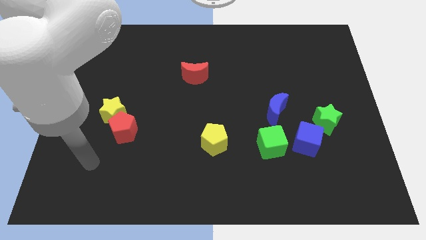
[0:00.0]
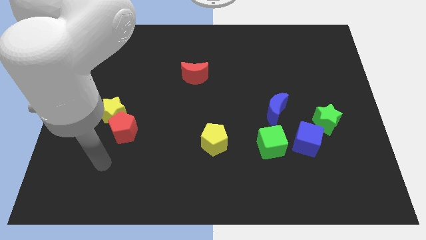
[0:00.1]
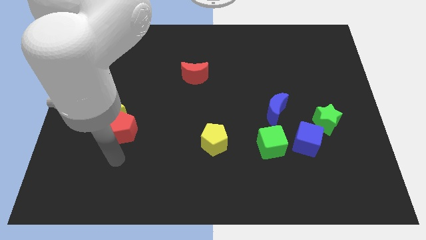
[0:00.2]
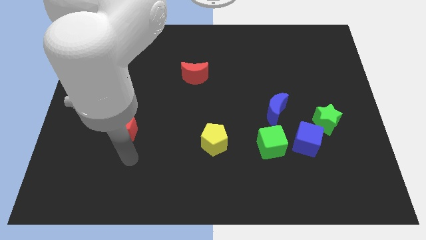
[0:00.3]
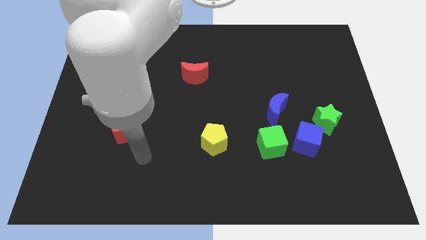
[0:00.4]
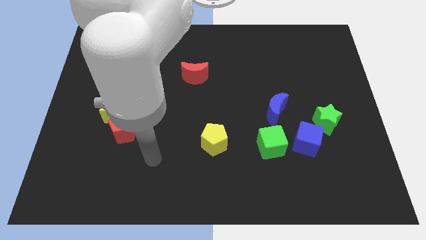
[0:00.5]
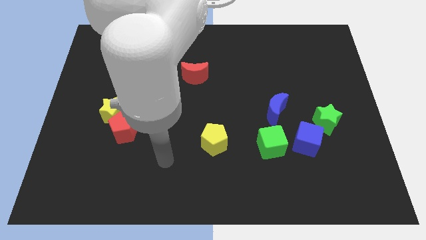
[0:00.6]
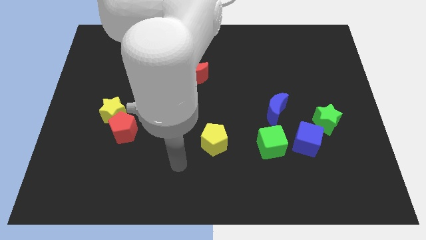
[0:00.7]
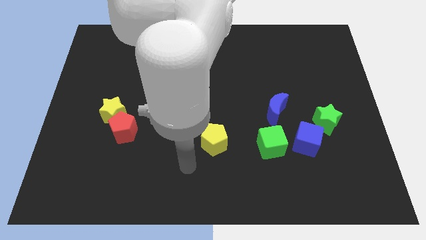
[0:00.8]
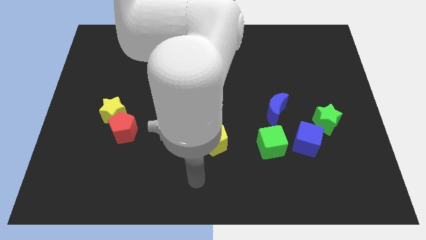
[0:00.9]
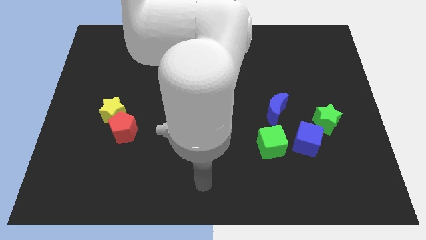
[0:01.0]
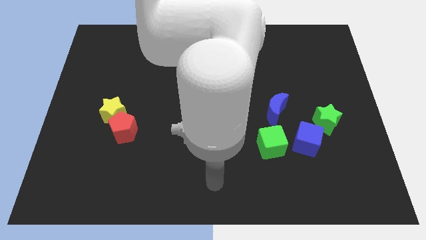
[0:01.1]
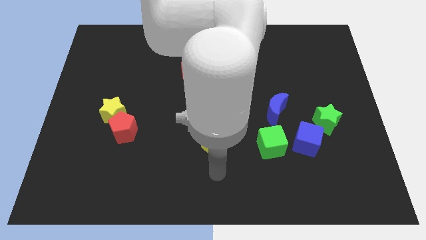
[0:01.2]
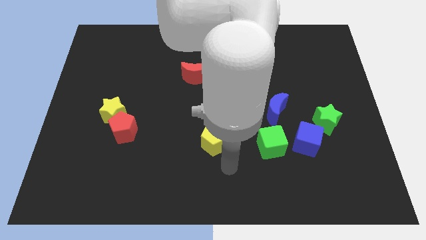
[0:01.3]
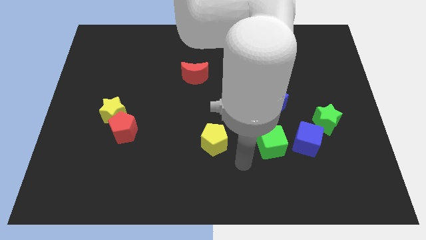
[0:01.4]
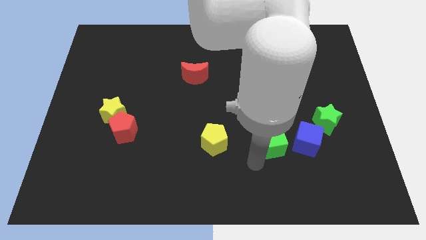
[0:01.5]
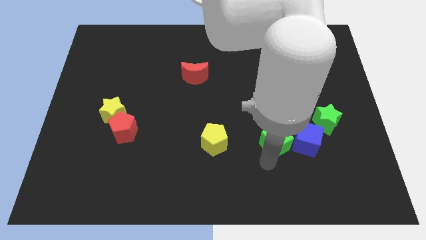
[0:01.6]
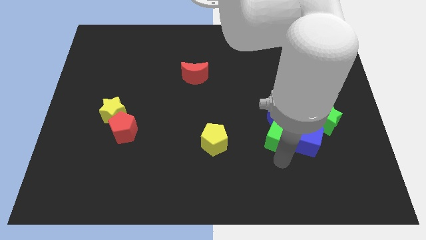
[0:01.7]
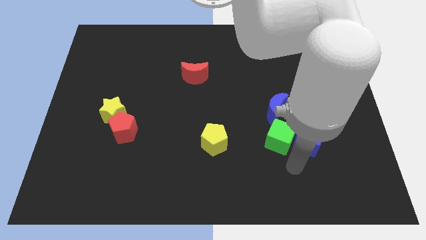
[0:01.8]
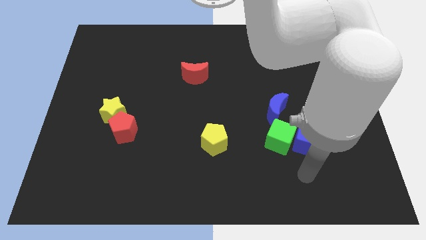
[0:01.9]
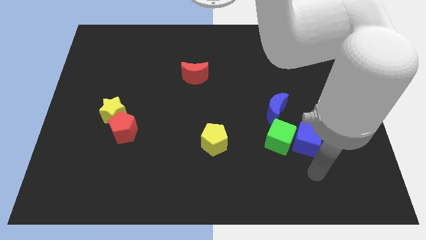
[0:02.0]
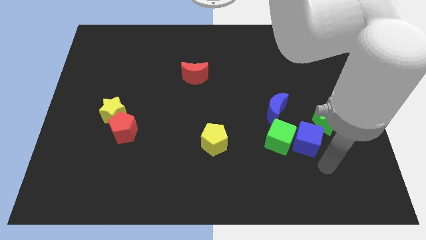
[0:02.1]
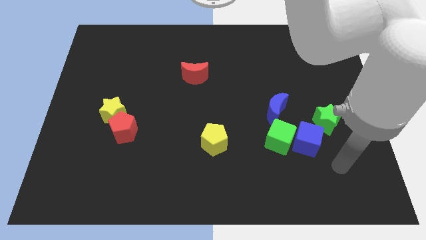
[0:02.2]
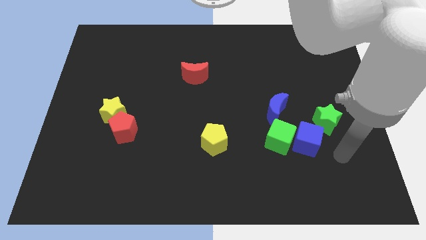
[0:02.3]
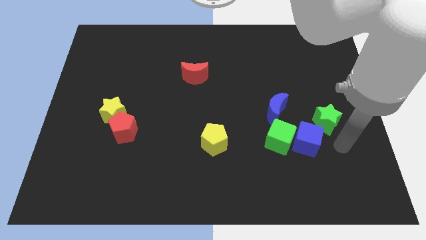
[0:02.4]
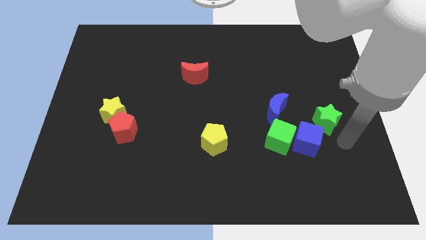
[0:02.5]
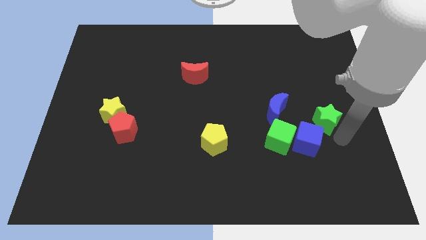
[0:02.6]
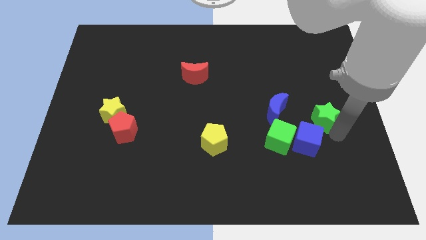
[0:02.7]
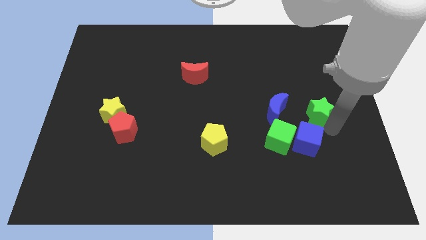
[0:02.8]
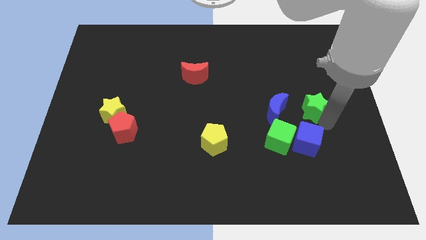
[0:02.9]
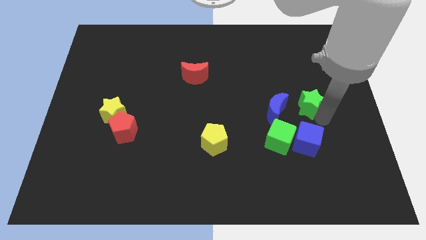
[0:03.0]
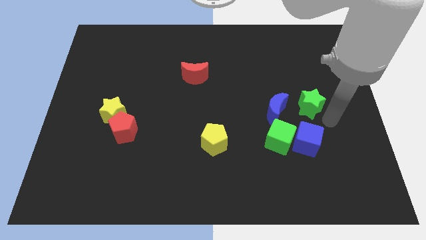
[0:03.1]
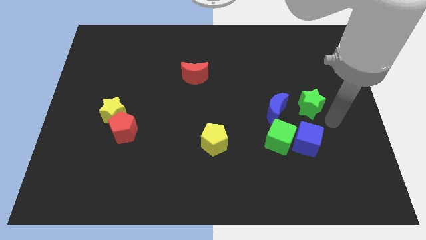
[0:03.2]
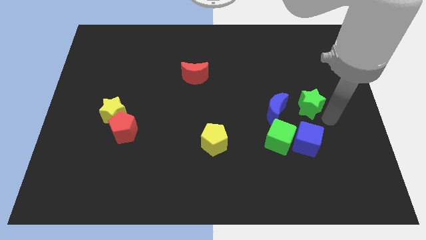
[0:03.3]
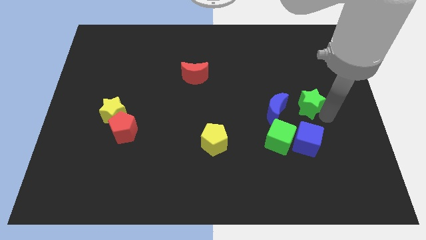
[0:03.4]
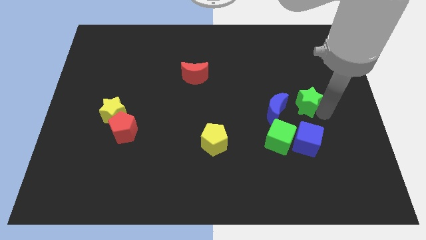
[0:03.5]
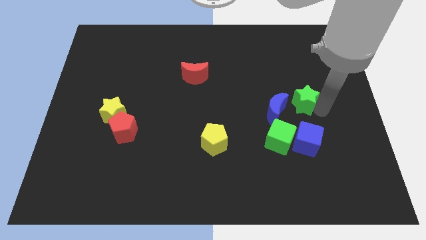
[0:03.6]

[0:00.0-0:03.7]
move the green star a little bit upwards and left diagonally

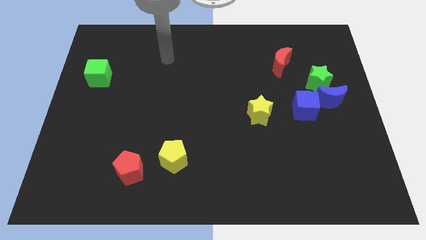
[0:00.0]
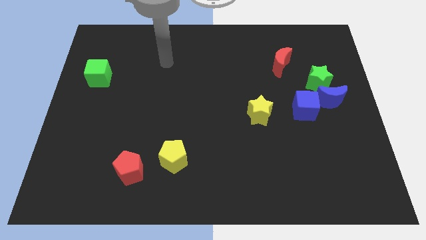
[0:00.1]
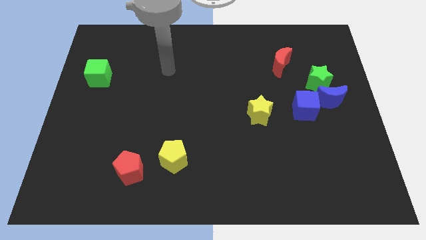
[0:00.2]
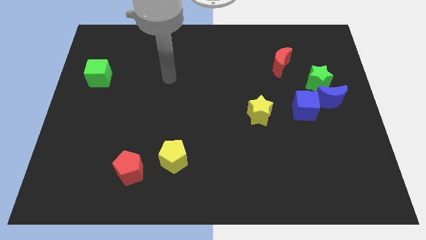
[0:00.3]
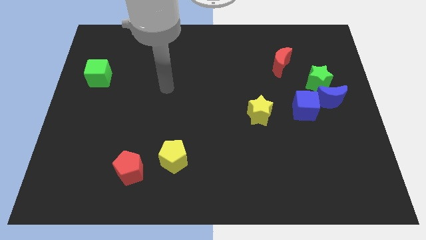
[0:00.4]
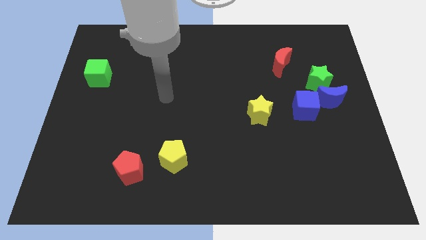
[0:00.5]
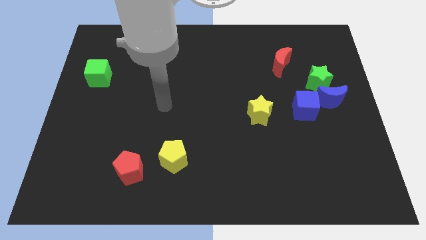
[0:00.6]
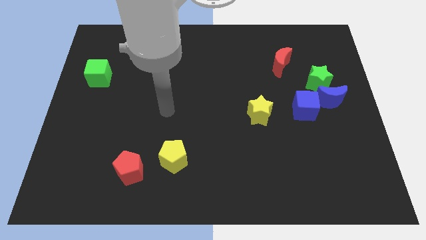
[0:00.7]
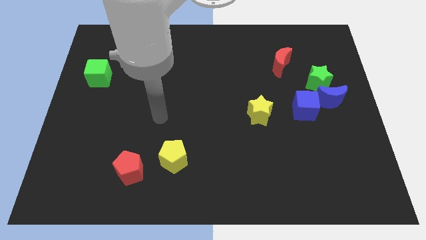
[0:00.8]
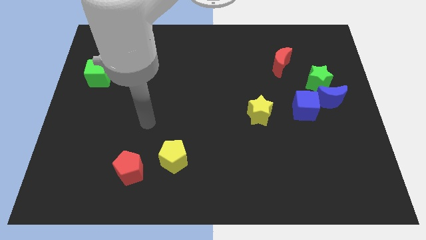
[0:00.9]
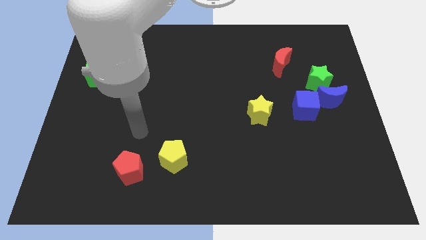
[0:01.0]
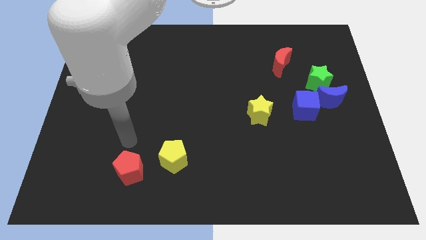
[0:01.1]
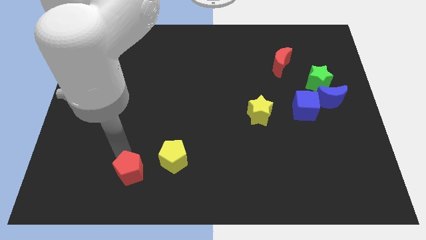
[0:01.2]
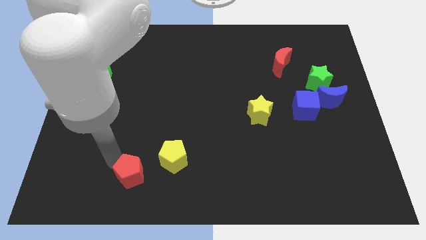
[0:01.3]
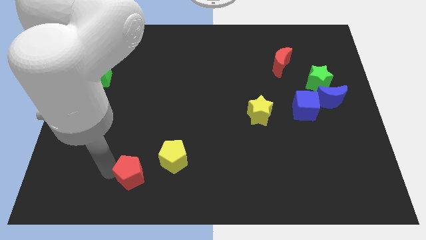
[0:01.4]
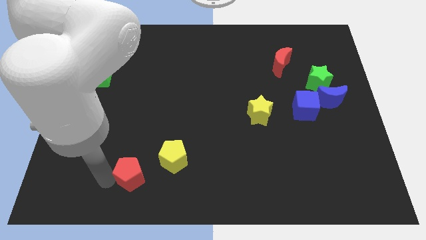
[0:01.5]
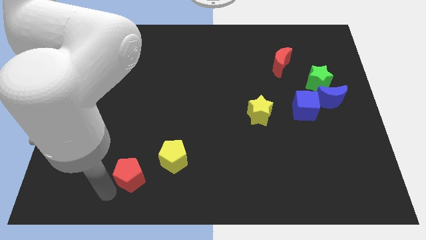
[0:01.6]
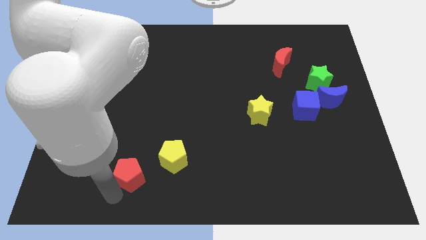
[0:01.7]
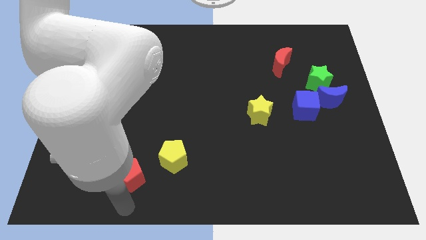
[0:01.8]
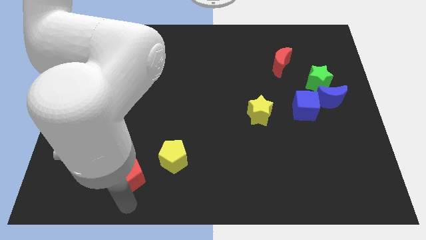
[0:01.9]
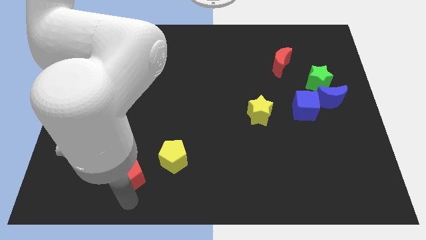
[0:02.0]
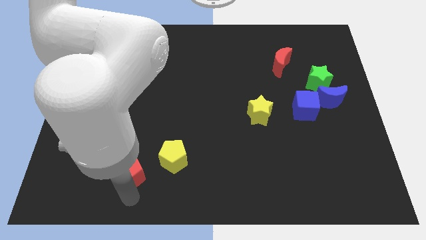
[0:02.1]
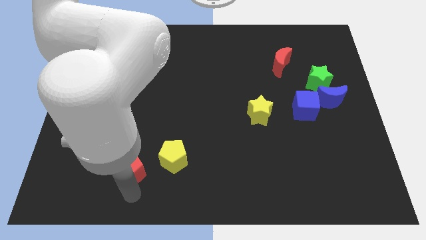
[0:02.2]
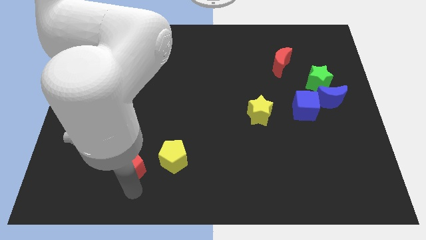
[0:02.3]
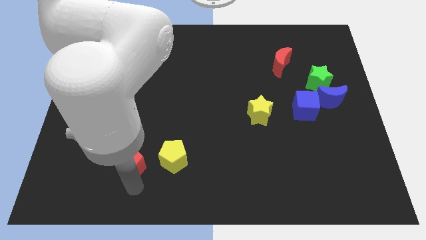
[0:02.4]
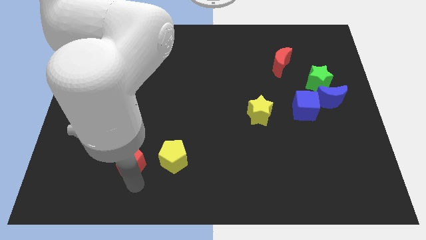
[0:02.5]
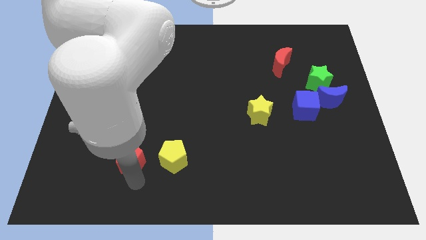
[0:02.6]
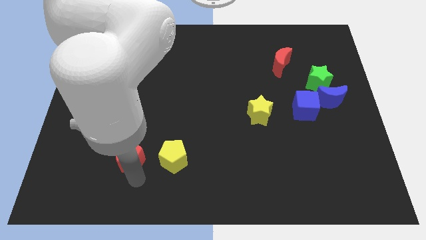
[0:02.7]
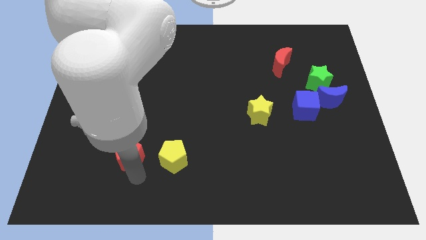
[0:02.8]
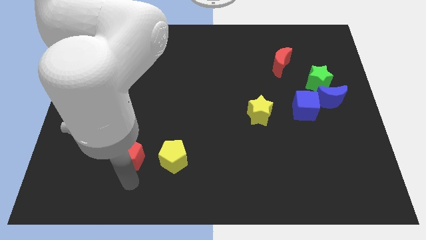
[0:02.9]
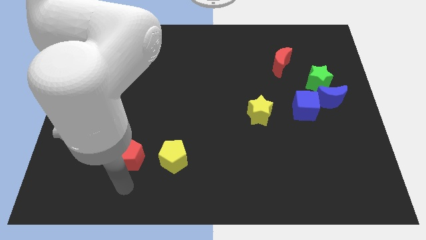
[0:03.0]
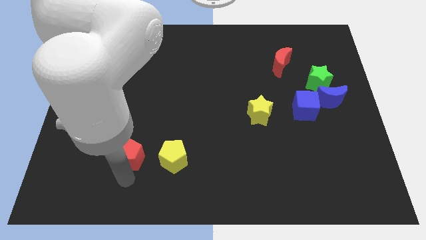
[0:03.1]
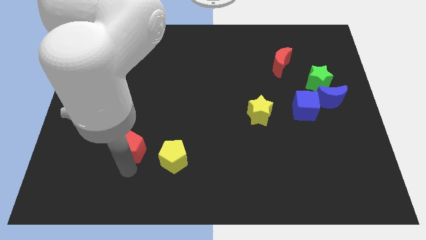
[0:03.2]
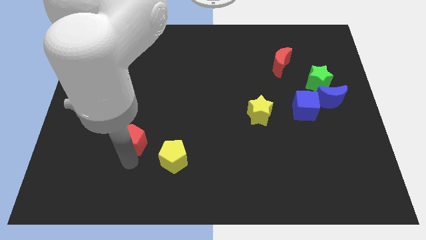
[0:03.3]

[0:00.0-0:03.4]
slightly push the red pentagon up

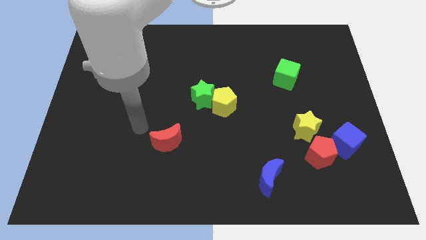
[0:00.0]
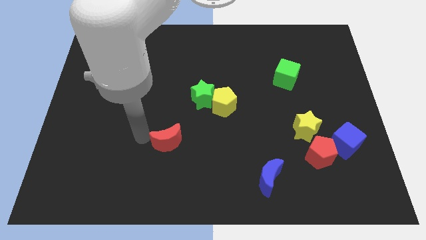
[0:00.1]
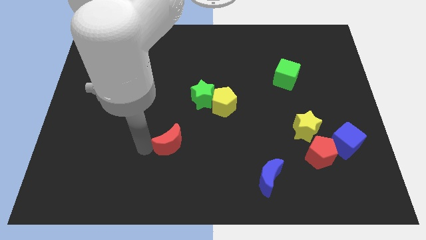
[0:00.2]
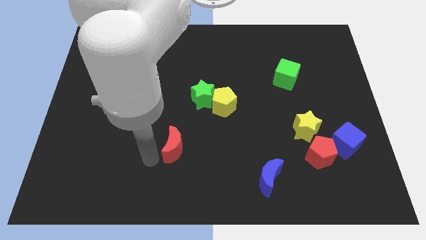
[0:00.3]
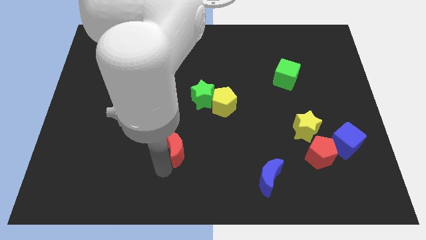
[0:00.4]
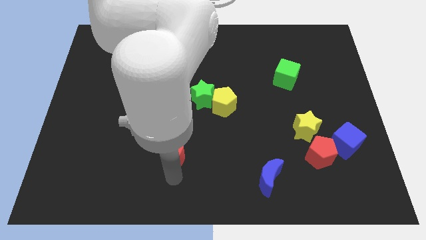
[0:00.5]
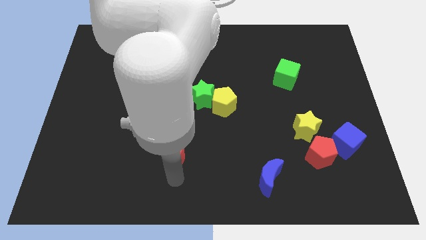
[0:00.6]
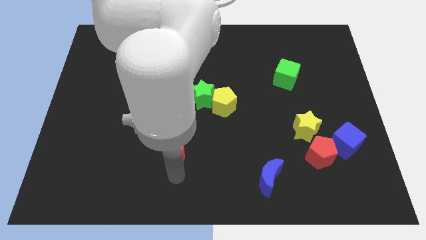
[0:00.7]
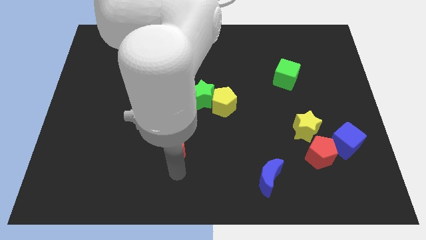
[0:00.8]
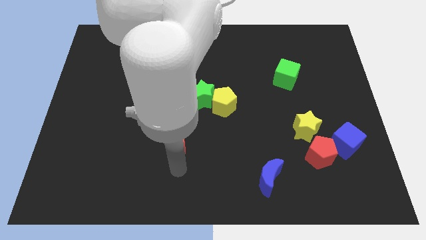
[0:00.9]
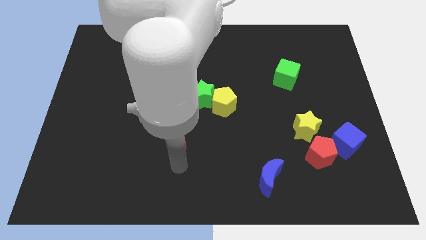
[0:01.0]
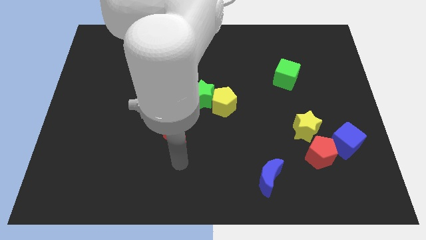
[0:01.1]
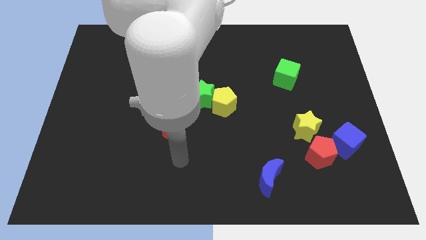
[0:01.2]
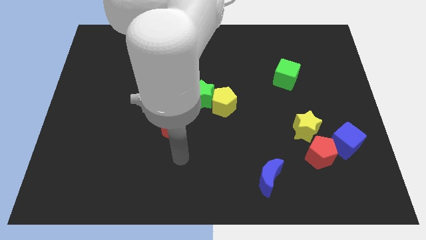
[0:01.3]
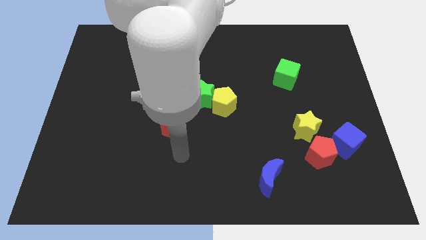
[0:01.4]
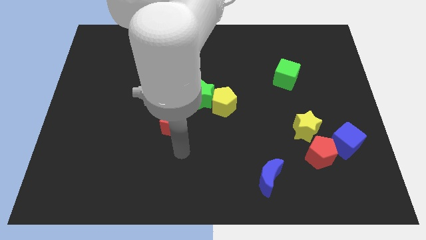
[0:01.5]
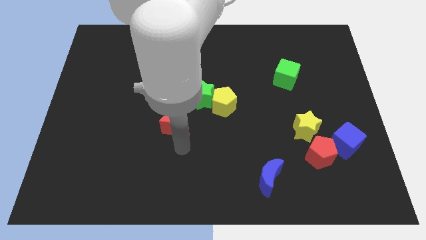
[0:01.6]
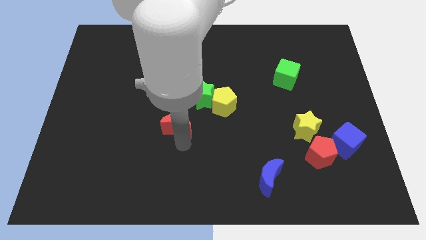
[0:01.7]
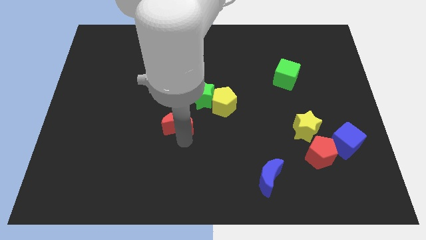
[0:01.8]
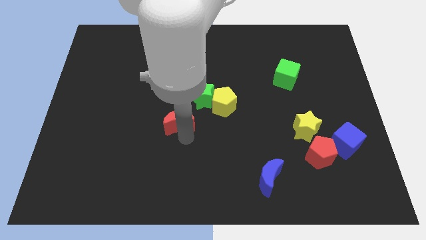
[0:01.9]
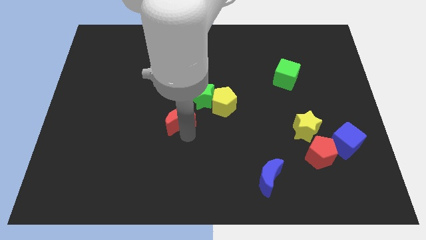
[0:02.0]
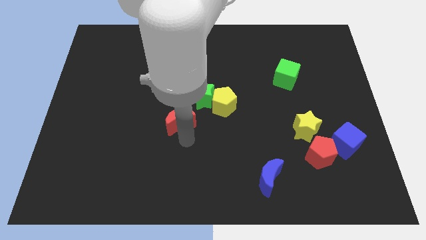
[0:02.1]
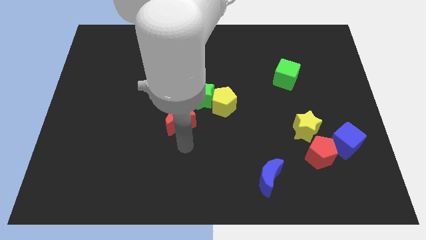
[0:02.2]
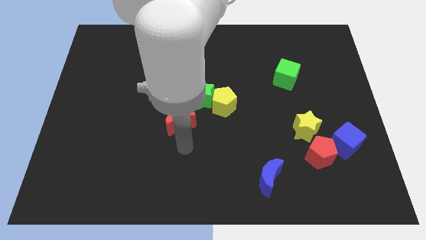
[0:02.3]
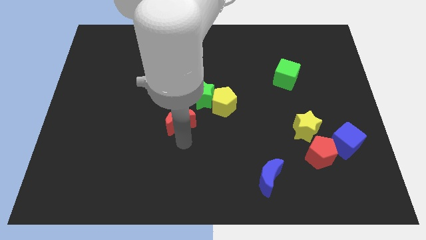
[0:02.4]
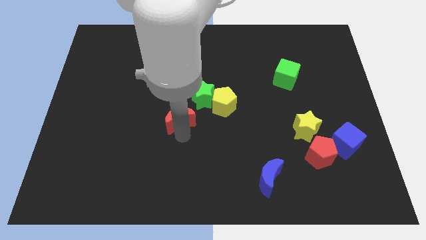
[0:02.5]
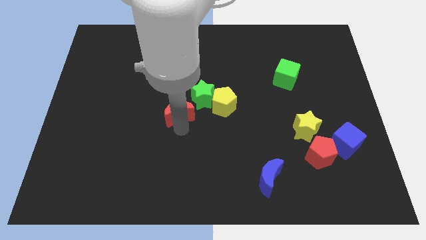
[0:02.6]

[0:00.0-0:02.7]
slightly push the red moon up
